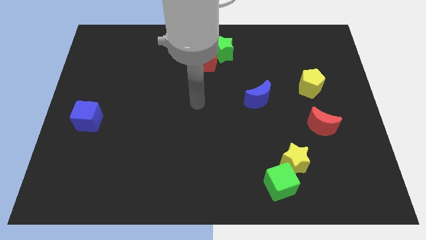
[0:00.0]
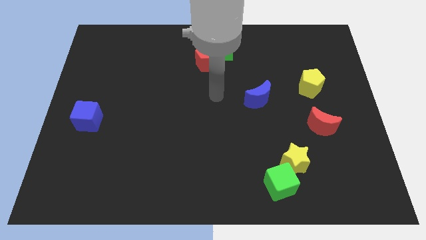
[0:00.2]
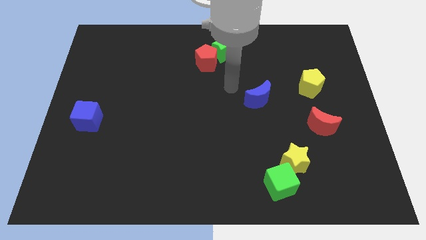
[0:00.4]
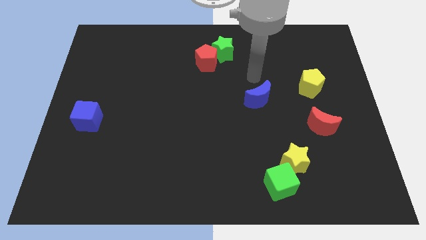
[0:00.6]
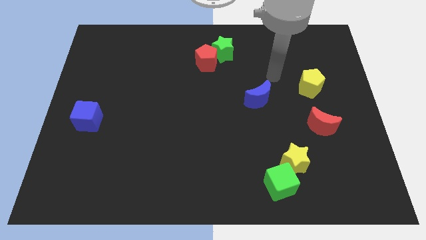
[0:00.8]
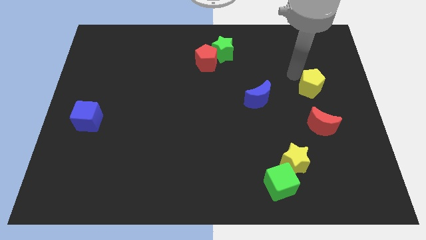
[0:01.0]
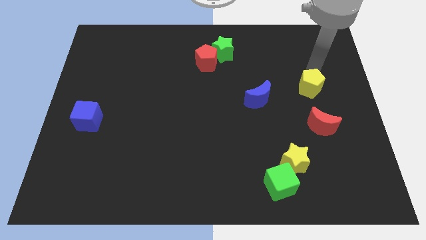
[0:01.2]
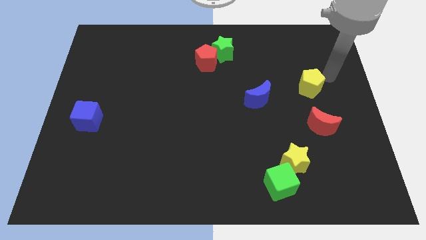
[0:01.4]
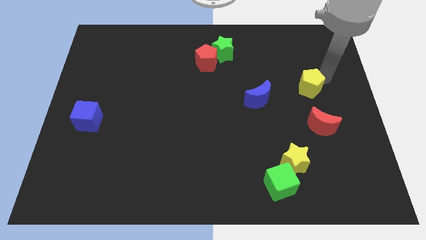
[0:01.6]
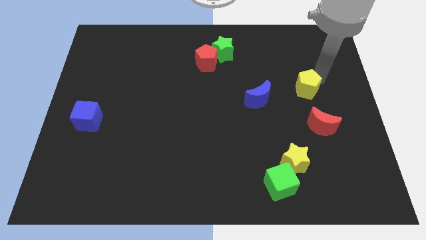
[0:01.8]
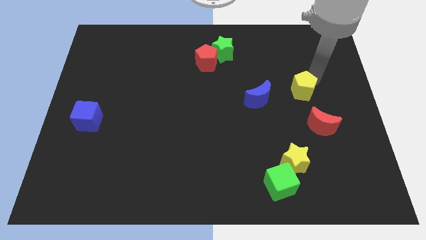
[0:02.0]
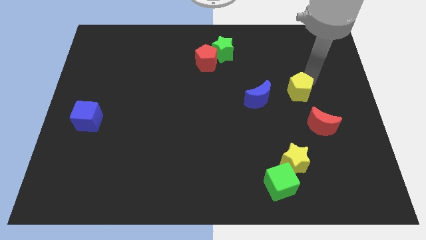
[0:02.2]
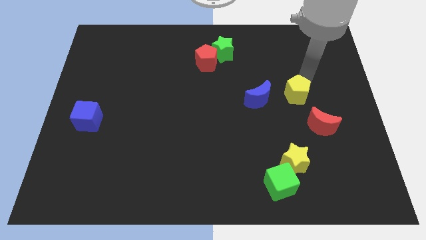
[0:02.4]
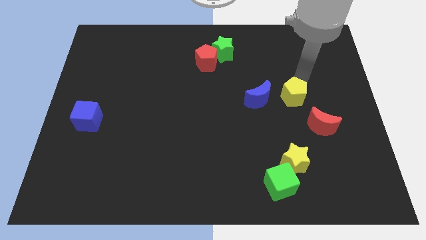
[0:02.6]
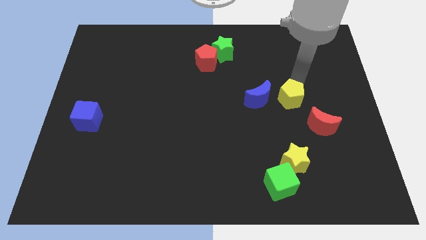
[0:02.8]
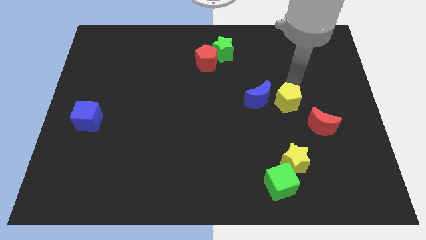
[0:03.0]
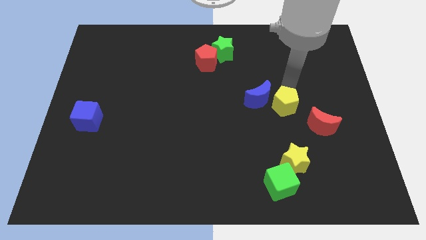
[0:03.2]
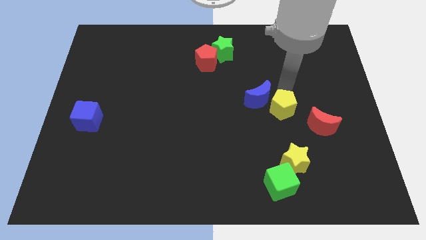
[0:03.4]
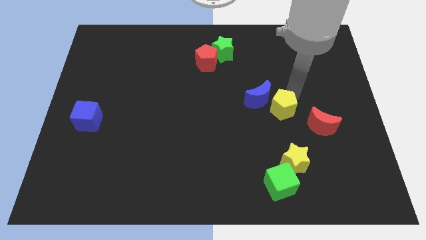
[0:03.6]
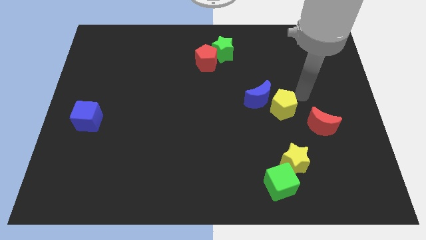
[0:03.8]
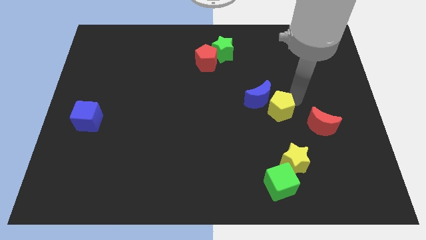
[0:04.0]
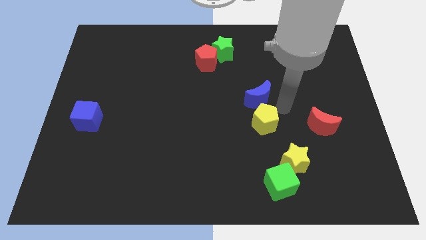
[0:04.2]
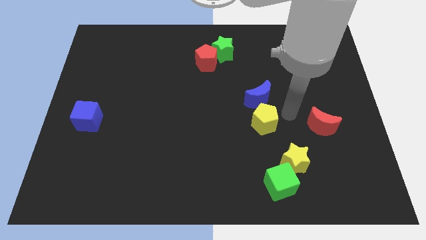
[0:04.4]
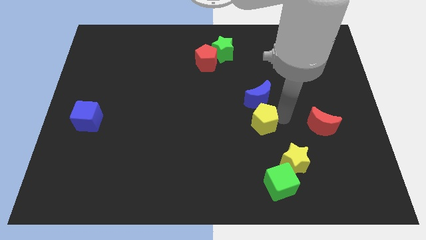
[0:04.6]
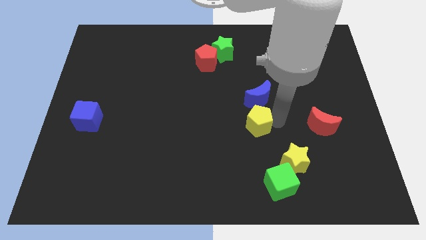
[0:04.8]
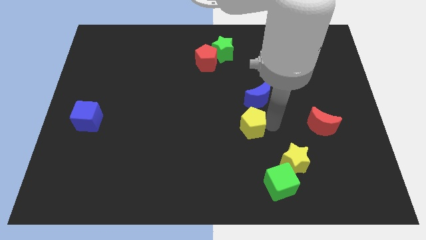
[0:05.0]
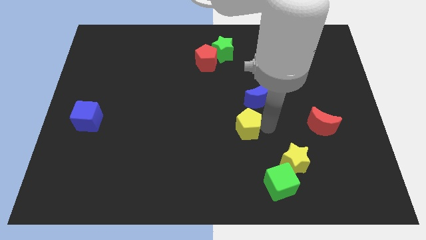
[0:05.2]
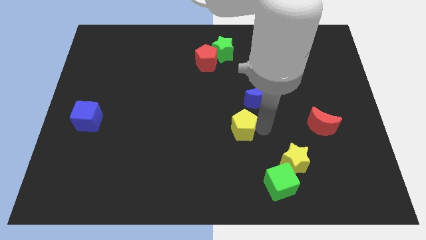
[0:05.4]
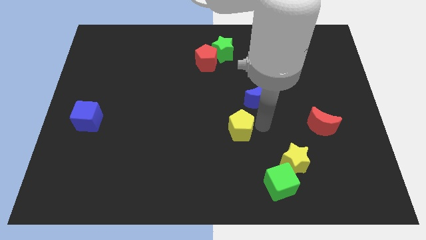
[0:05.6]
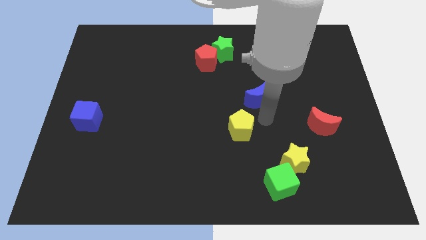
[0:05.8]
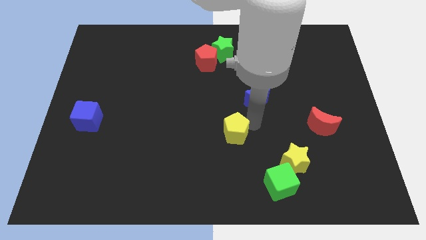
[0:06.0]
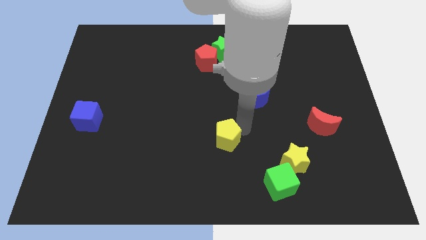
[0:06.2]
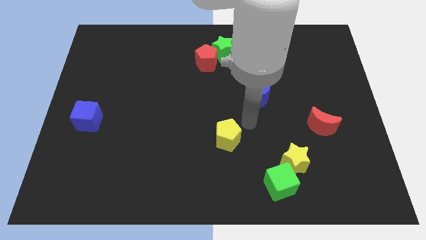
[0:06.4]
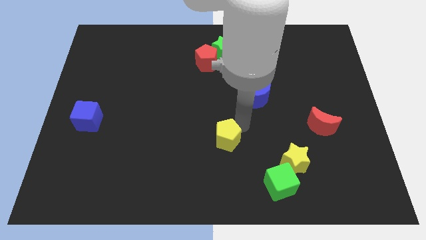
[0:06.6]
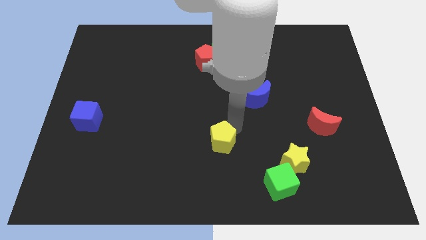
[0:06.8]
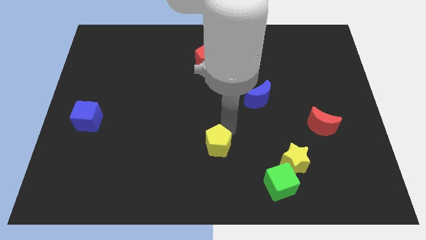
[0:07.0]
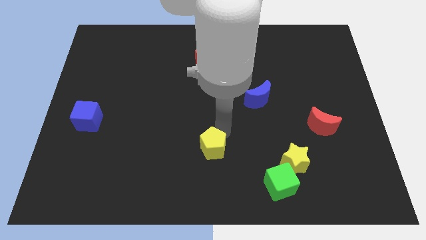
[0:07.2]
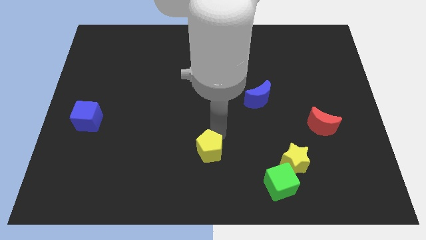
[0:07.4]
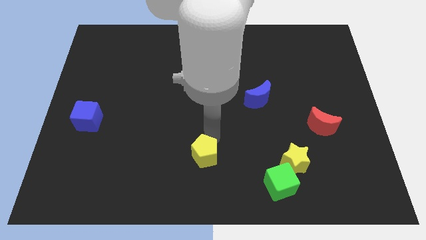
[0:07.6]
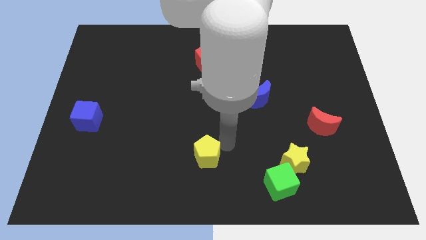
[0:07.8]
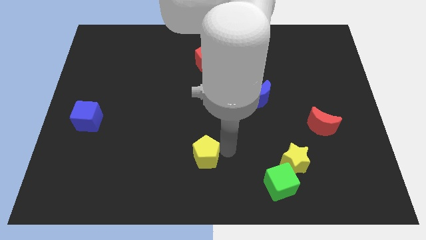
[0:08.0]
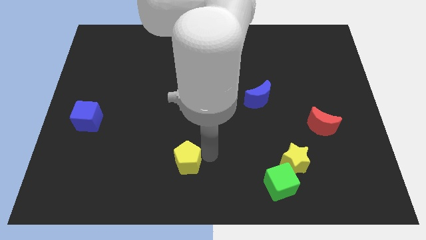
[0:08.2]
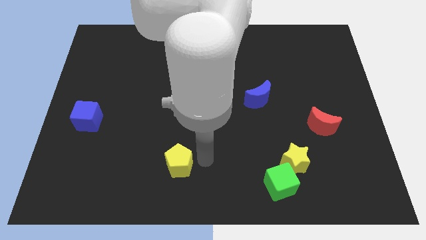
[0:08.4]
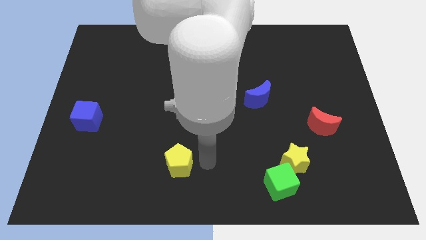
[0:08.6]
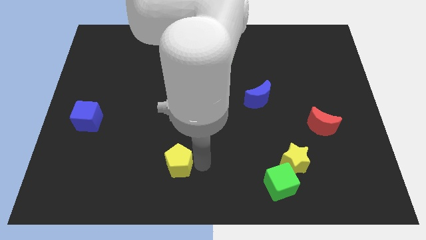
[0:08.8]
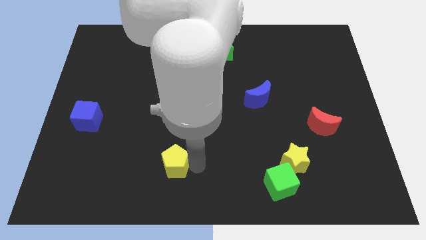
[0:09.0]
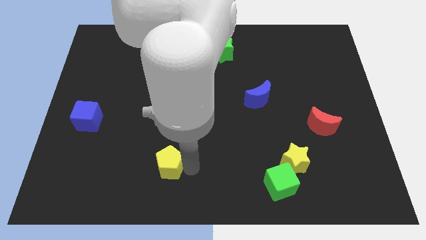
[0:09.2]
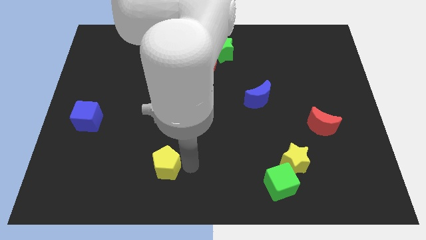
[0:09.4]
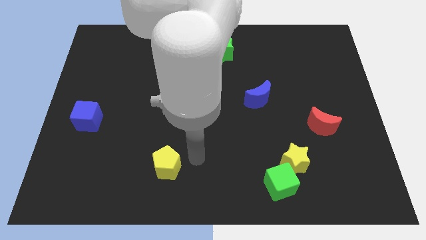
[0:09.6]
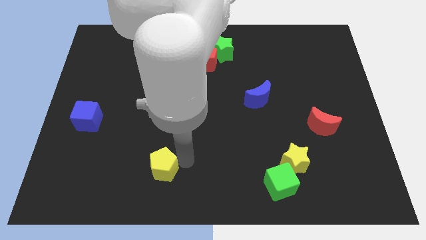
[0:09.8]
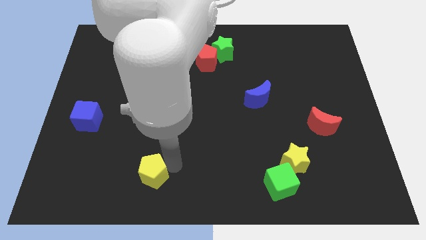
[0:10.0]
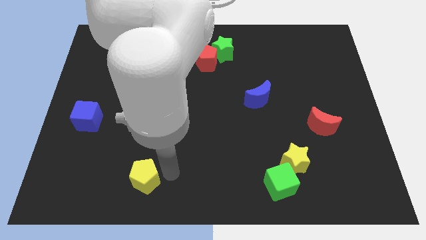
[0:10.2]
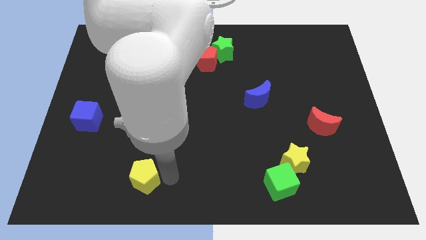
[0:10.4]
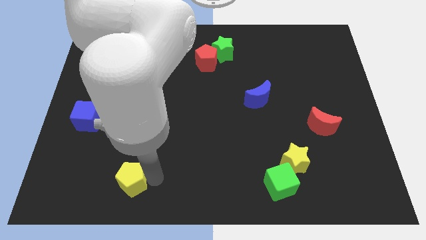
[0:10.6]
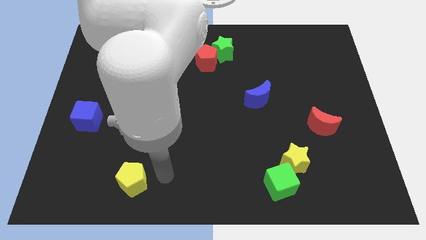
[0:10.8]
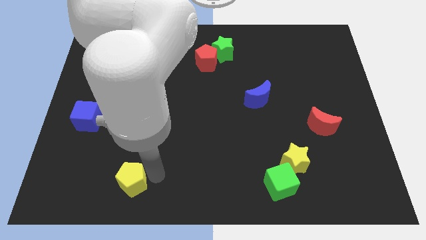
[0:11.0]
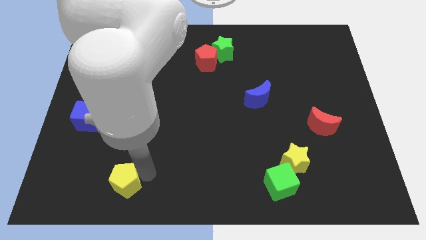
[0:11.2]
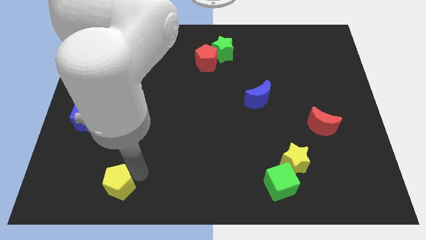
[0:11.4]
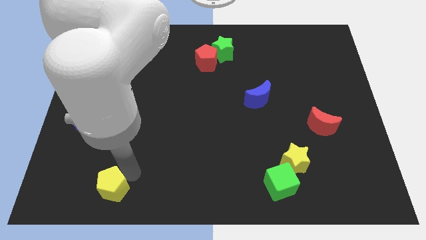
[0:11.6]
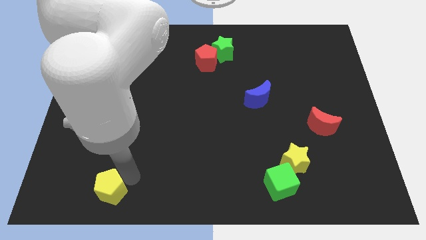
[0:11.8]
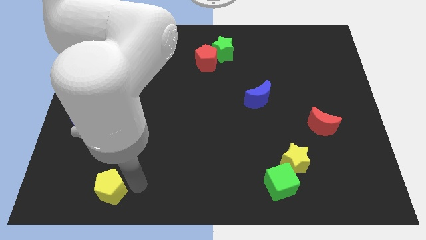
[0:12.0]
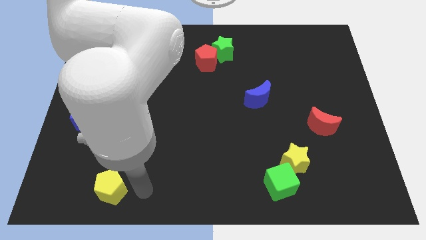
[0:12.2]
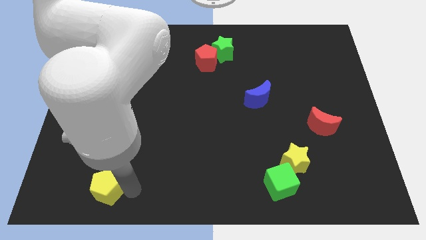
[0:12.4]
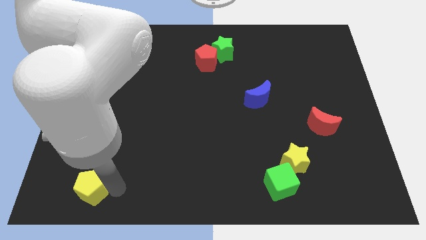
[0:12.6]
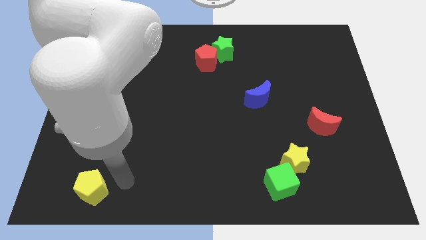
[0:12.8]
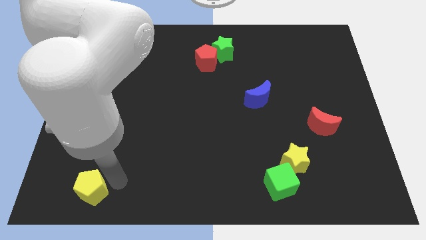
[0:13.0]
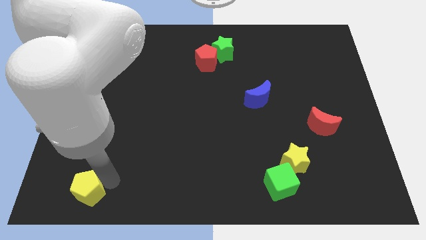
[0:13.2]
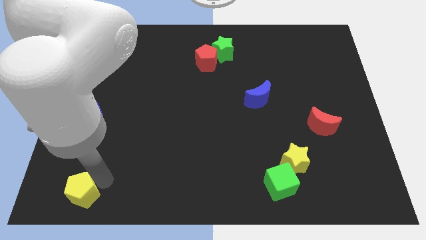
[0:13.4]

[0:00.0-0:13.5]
put the yellow pentagon to the lower left corner
